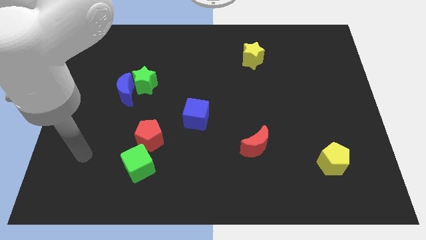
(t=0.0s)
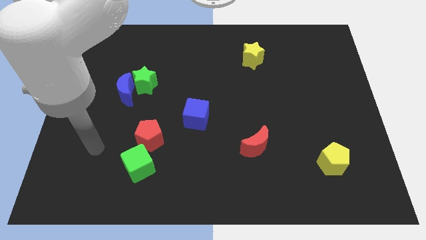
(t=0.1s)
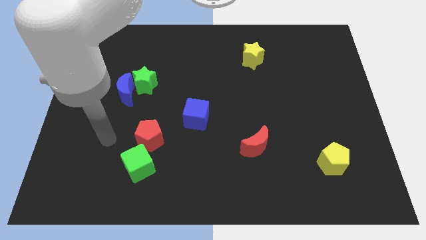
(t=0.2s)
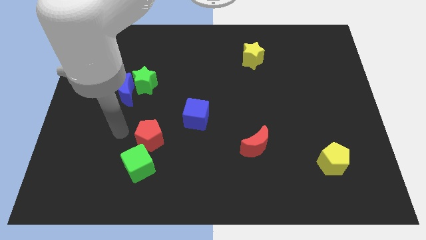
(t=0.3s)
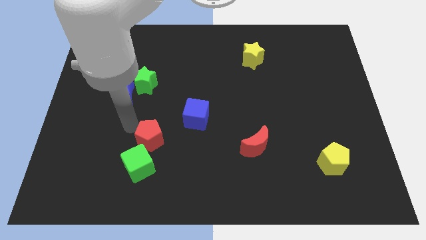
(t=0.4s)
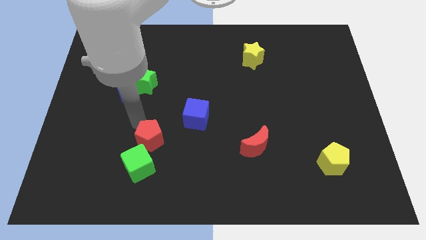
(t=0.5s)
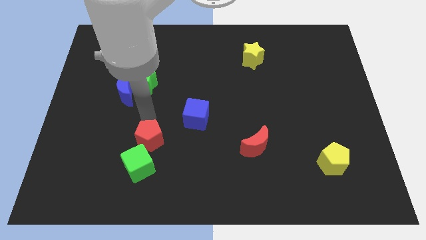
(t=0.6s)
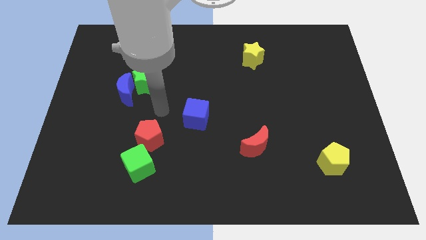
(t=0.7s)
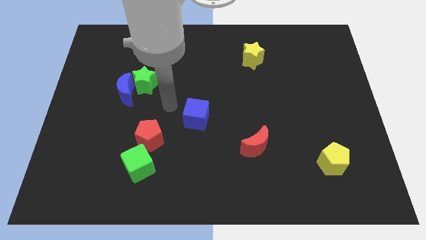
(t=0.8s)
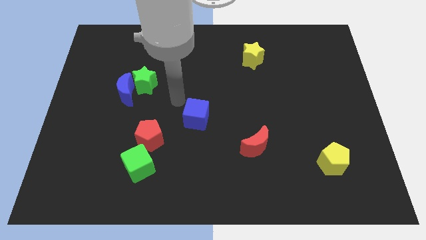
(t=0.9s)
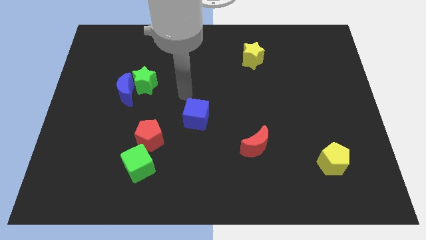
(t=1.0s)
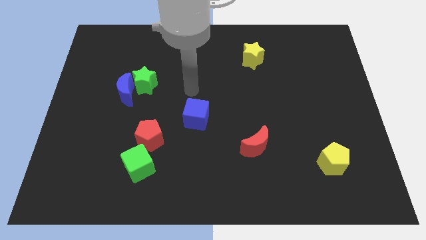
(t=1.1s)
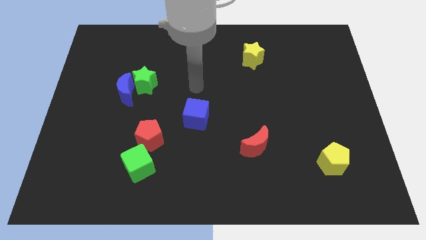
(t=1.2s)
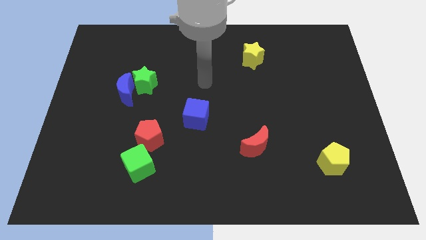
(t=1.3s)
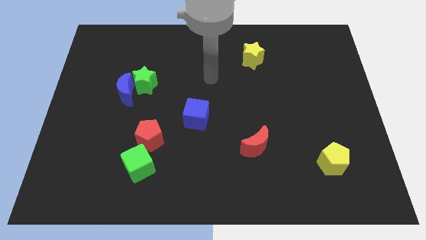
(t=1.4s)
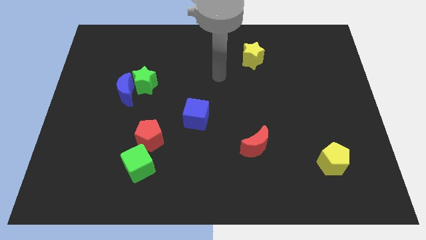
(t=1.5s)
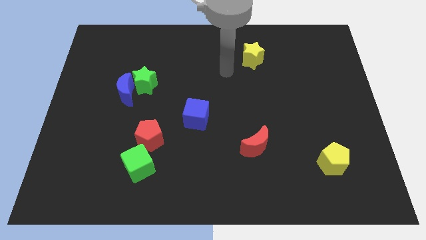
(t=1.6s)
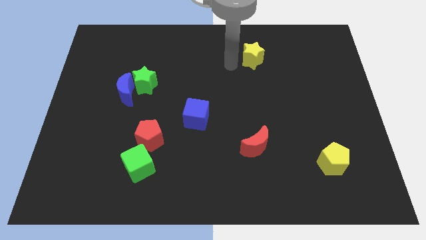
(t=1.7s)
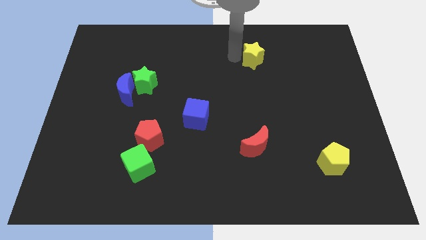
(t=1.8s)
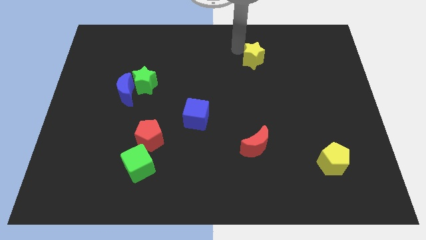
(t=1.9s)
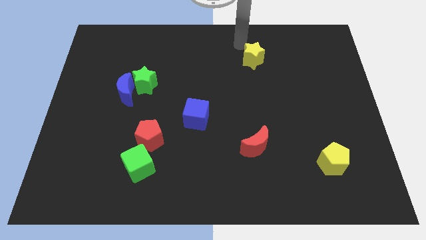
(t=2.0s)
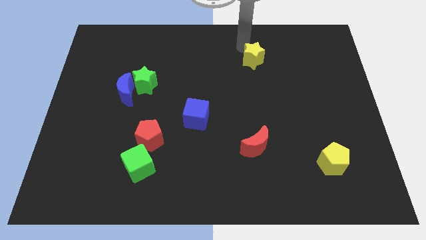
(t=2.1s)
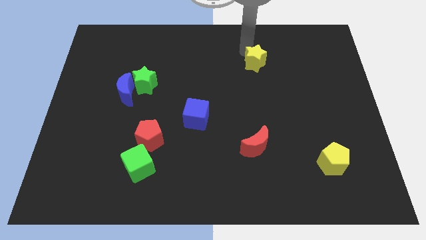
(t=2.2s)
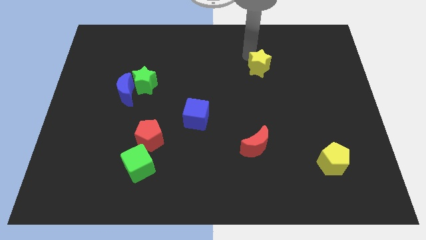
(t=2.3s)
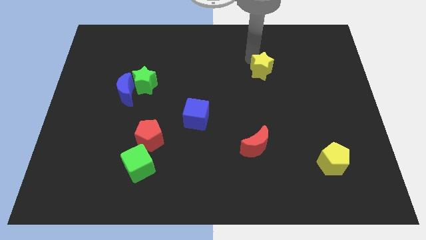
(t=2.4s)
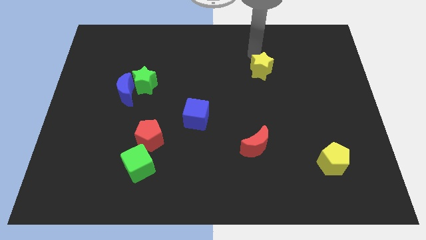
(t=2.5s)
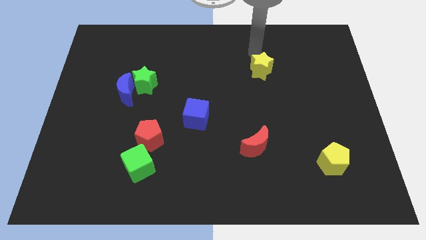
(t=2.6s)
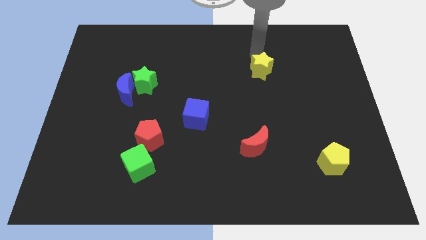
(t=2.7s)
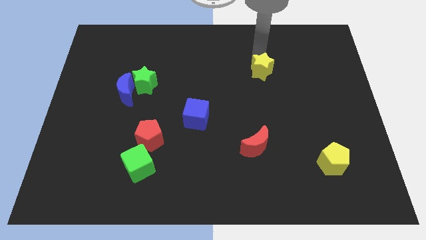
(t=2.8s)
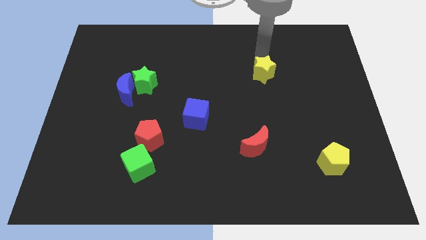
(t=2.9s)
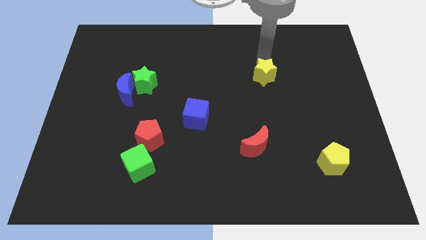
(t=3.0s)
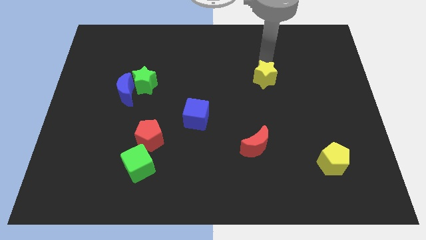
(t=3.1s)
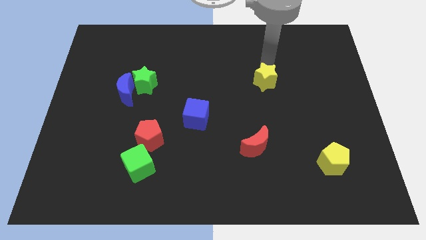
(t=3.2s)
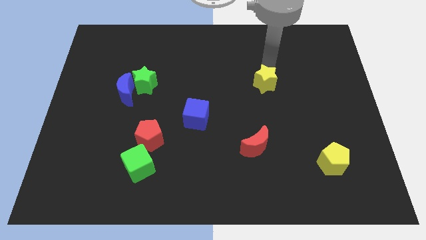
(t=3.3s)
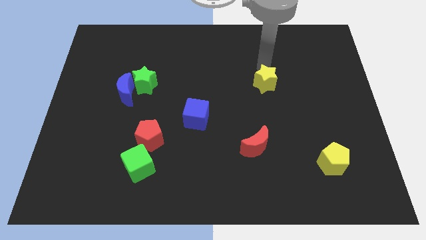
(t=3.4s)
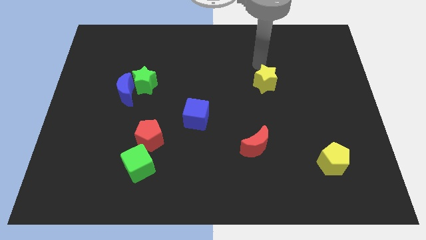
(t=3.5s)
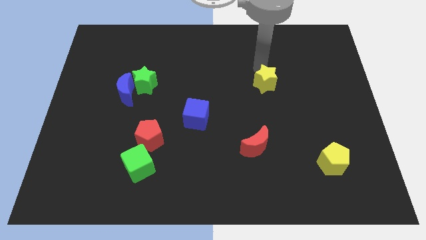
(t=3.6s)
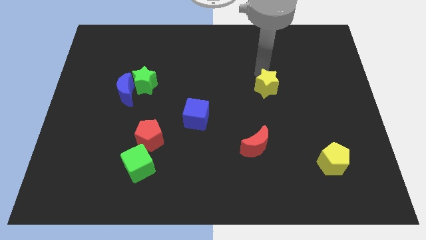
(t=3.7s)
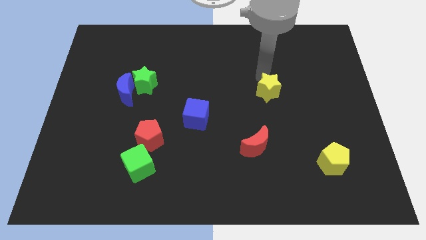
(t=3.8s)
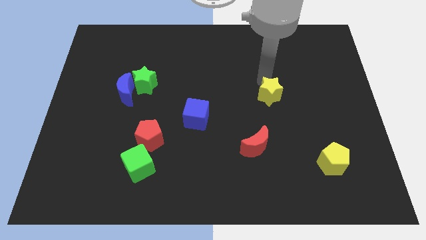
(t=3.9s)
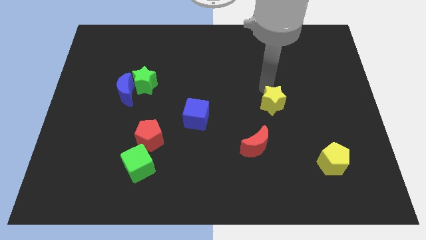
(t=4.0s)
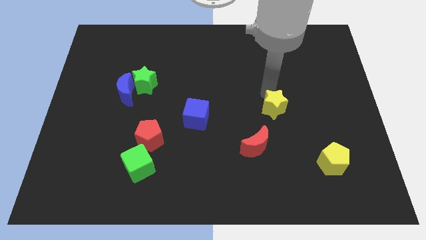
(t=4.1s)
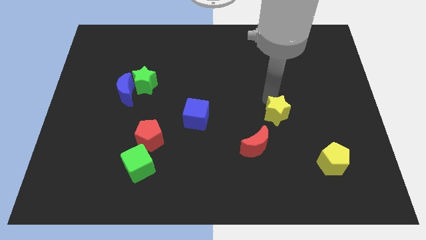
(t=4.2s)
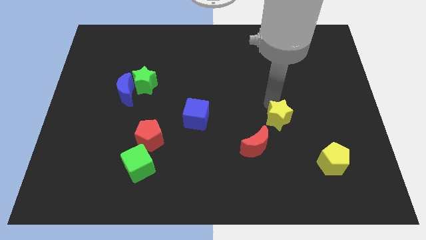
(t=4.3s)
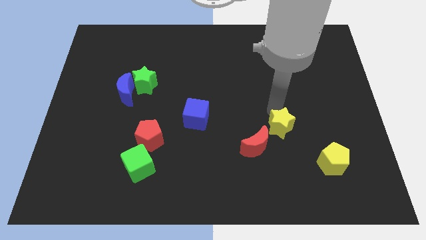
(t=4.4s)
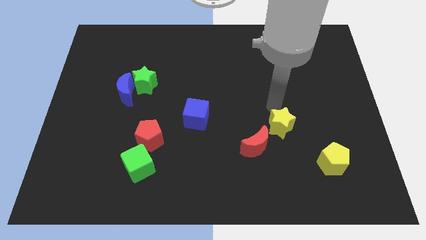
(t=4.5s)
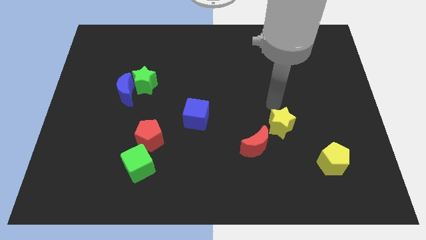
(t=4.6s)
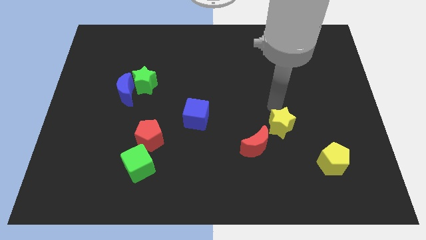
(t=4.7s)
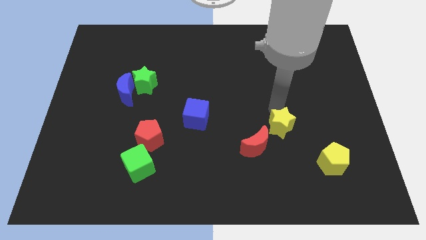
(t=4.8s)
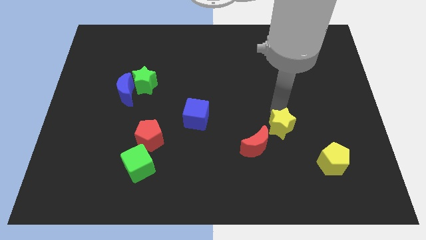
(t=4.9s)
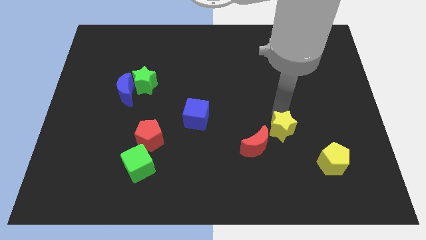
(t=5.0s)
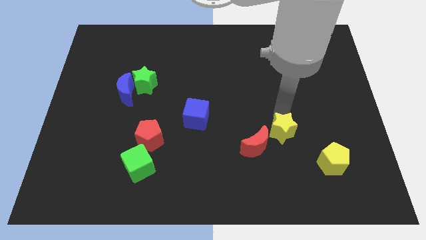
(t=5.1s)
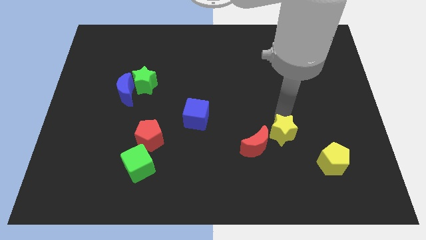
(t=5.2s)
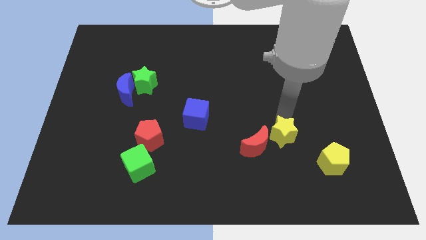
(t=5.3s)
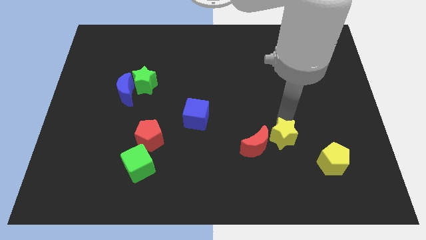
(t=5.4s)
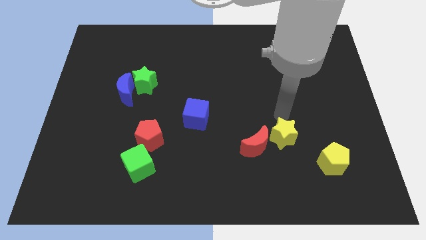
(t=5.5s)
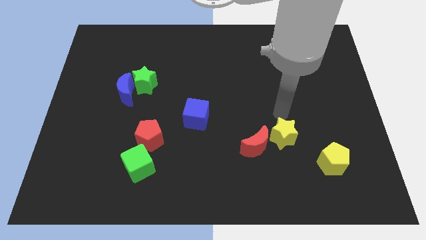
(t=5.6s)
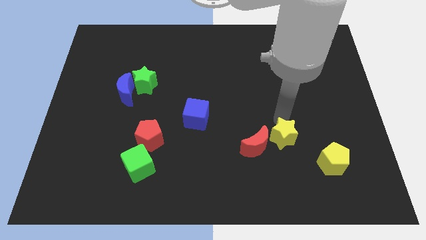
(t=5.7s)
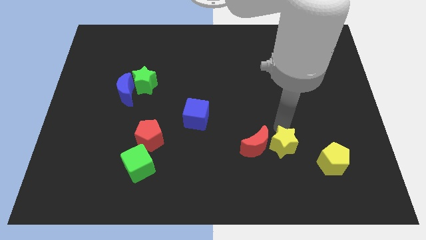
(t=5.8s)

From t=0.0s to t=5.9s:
slide the yellow star to the bottom right side of the red moon

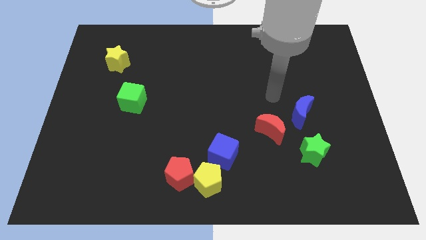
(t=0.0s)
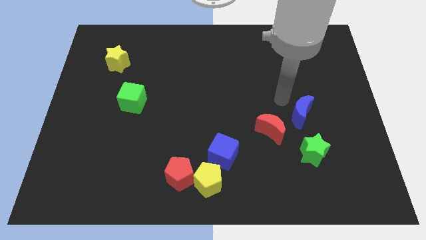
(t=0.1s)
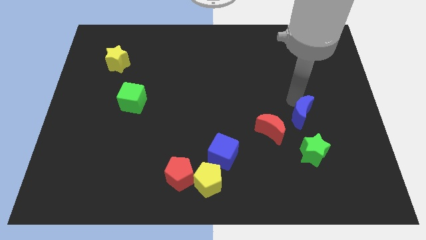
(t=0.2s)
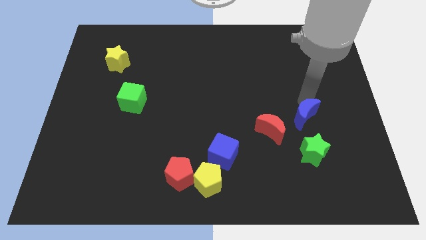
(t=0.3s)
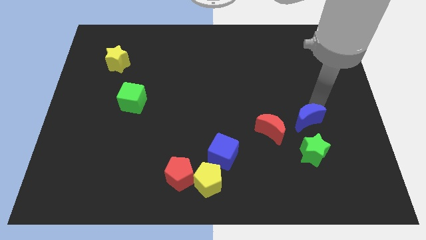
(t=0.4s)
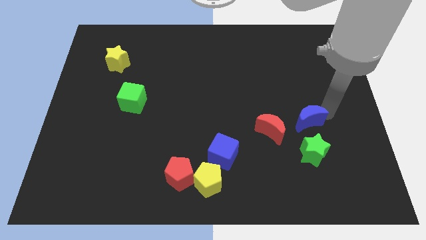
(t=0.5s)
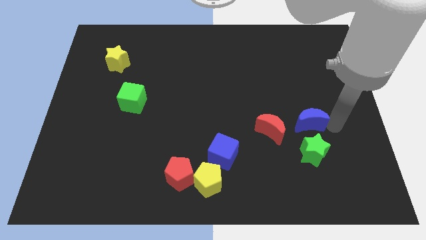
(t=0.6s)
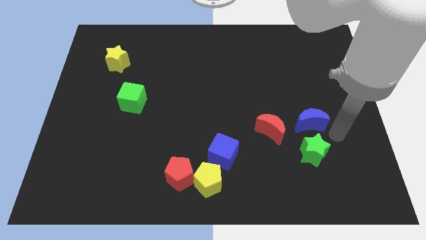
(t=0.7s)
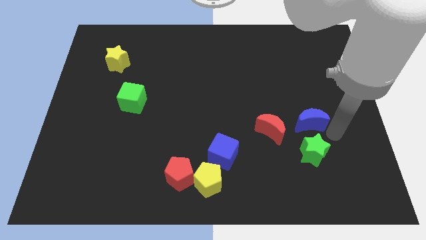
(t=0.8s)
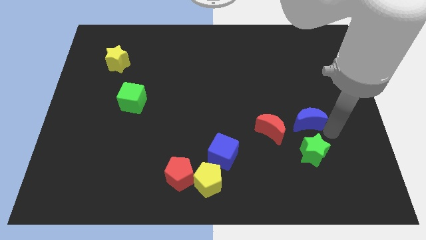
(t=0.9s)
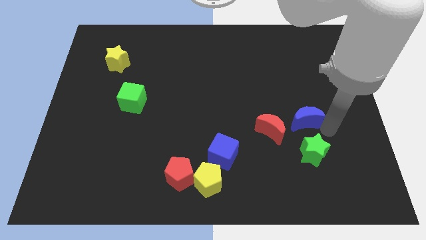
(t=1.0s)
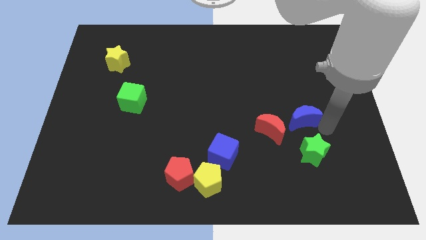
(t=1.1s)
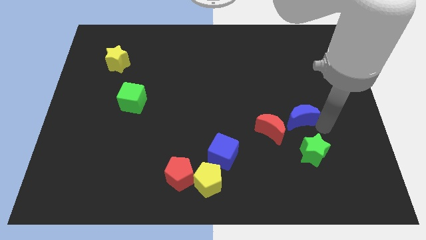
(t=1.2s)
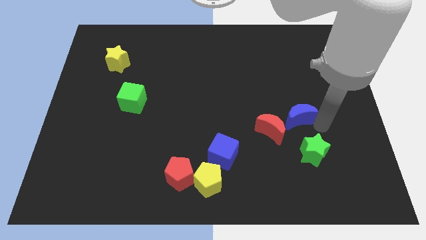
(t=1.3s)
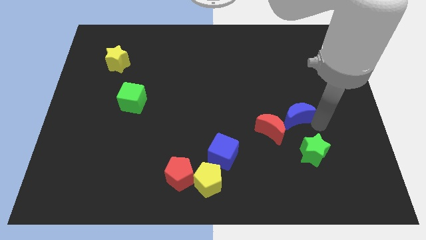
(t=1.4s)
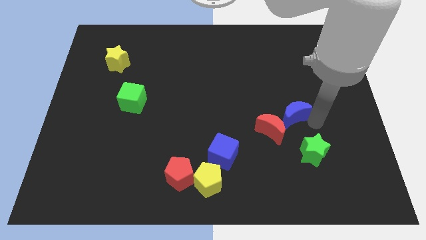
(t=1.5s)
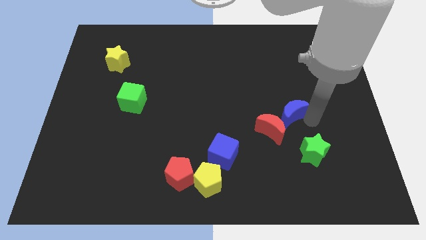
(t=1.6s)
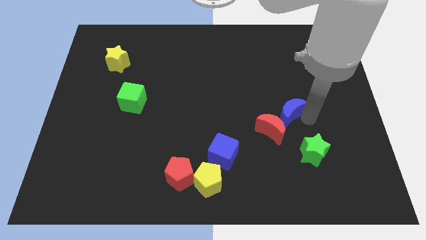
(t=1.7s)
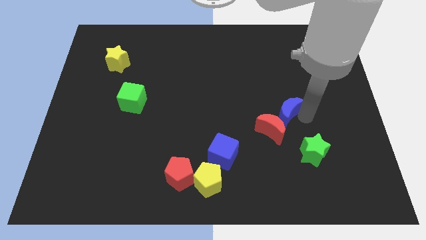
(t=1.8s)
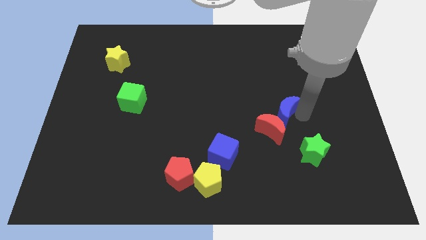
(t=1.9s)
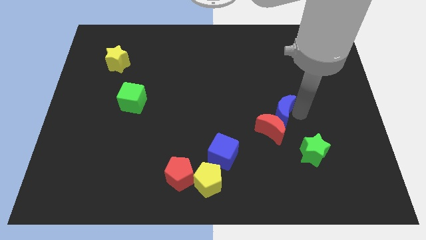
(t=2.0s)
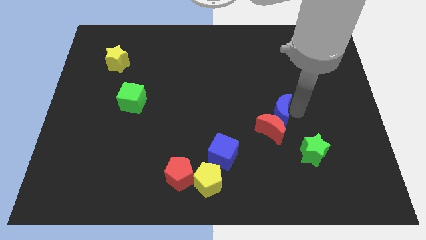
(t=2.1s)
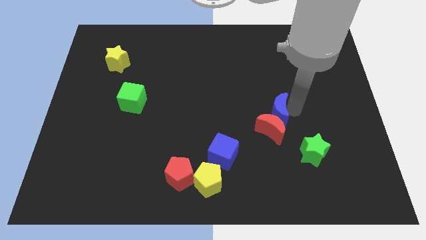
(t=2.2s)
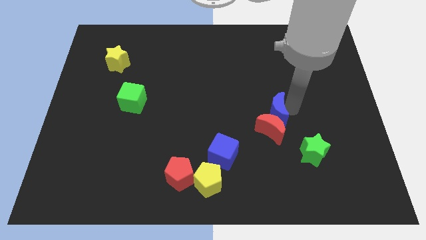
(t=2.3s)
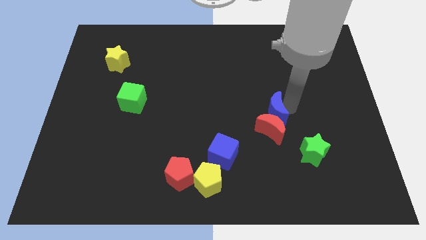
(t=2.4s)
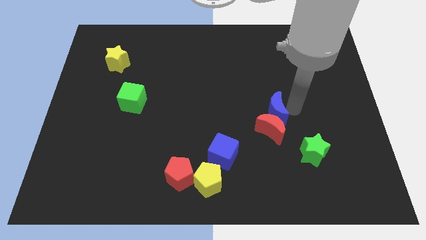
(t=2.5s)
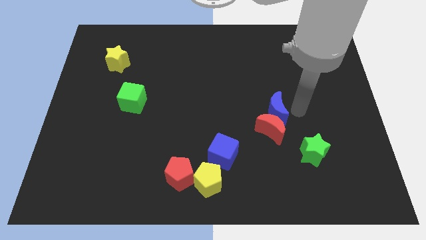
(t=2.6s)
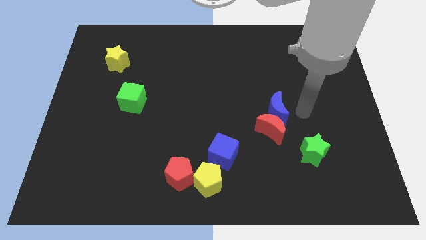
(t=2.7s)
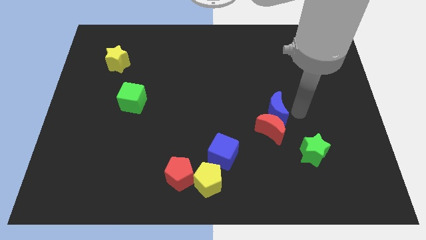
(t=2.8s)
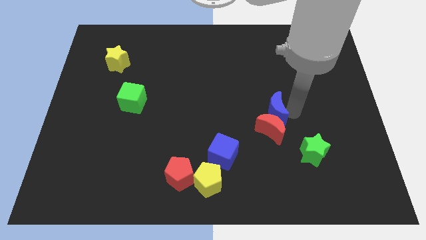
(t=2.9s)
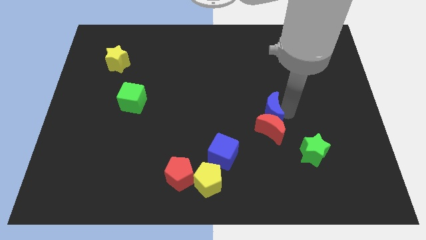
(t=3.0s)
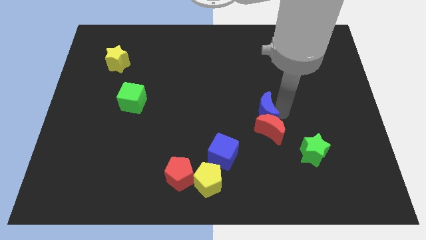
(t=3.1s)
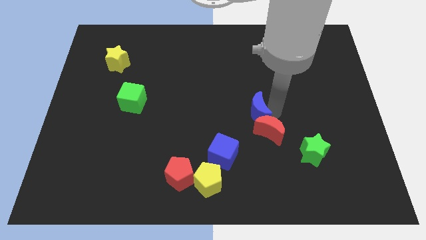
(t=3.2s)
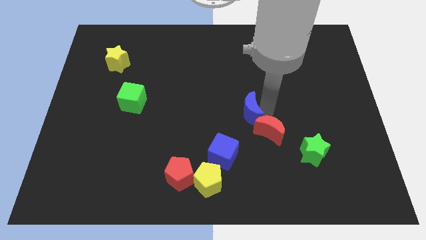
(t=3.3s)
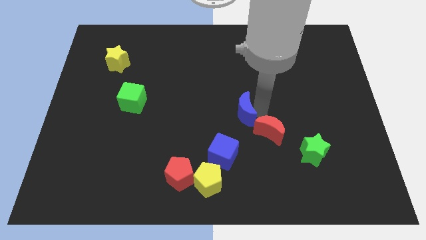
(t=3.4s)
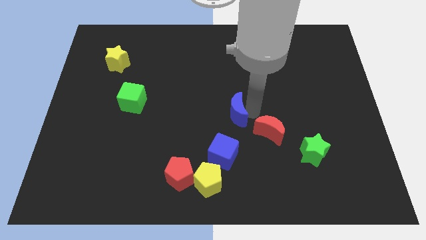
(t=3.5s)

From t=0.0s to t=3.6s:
slide the blue moon to the top side of the blue cube
